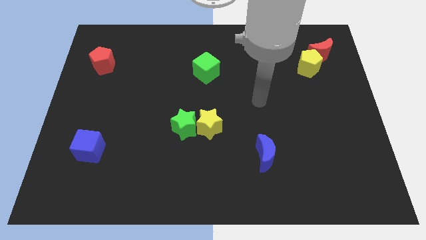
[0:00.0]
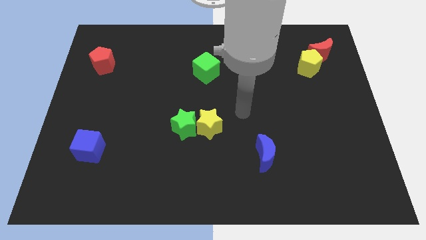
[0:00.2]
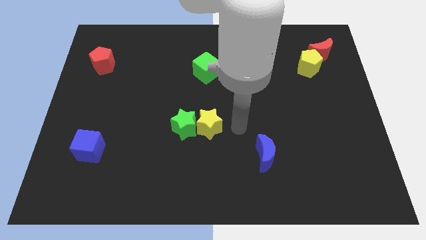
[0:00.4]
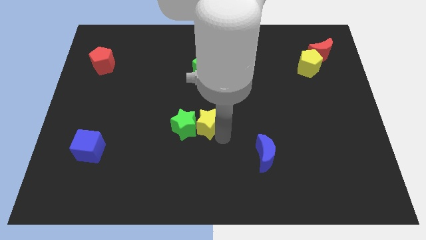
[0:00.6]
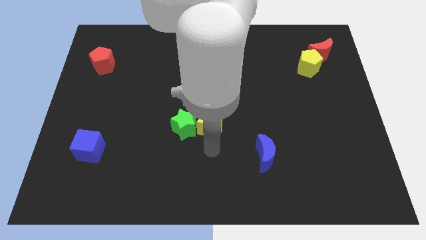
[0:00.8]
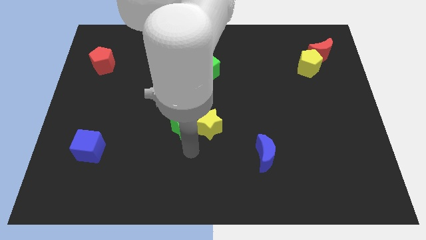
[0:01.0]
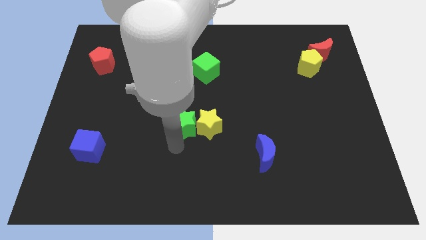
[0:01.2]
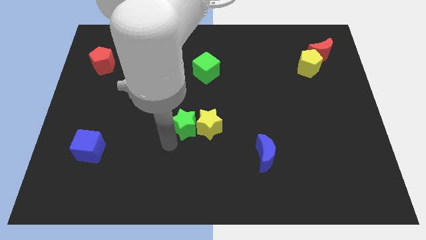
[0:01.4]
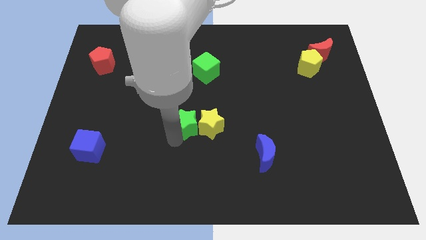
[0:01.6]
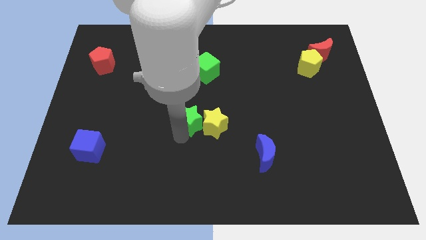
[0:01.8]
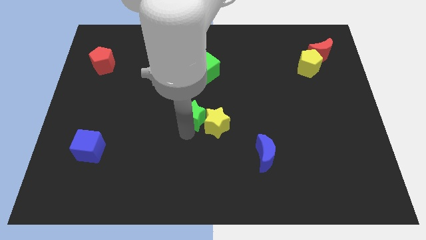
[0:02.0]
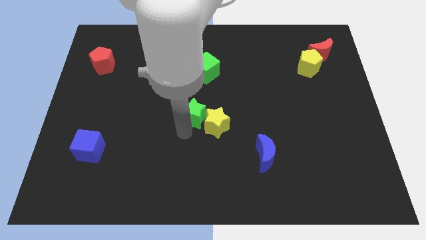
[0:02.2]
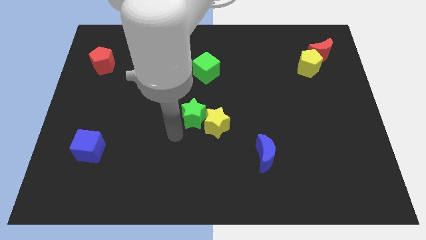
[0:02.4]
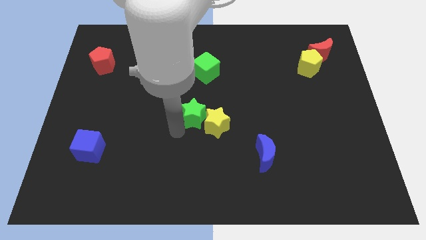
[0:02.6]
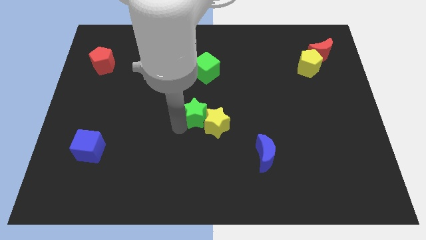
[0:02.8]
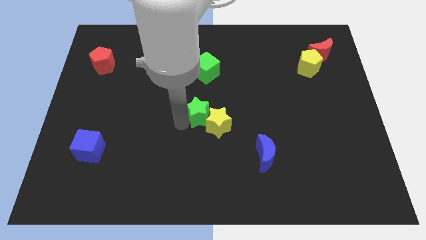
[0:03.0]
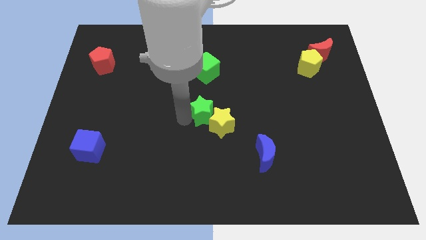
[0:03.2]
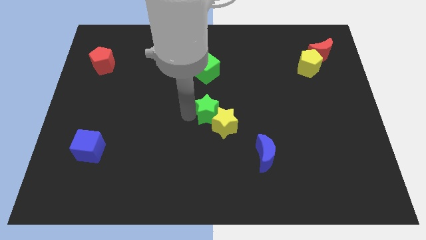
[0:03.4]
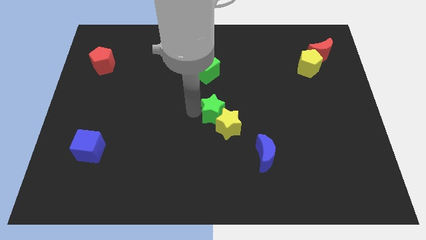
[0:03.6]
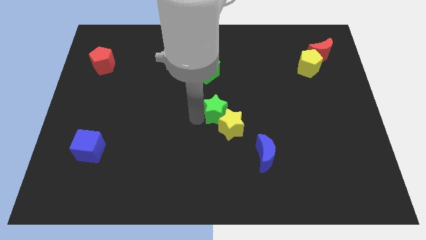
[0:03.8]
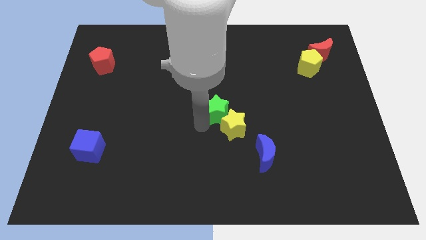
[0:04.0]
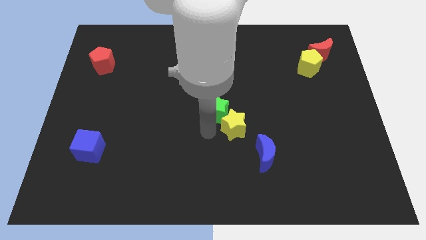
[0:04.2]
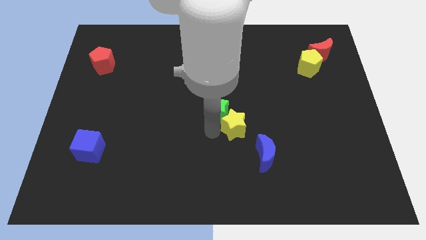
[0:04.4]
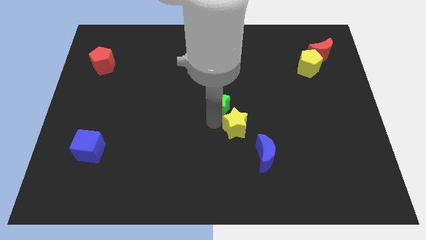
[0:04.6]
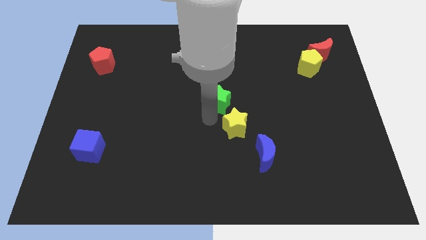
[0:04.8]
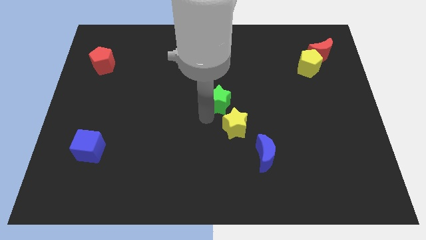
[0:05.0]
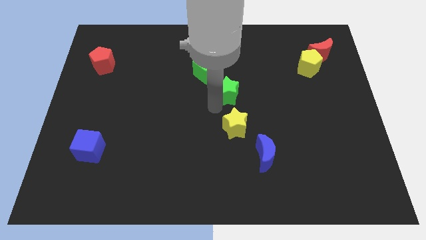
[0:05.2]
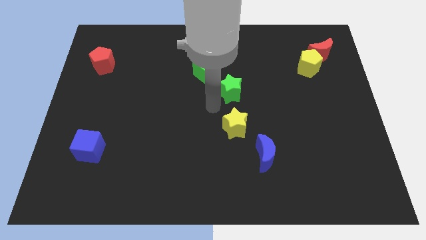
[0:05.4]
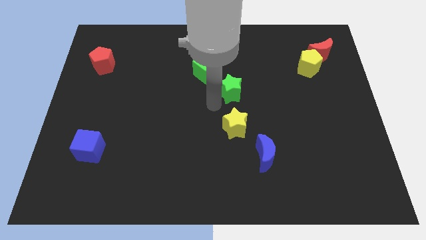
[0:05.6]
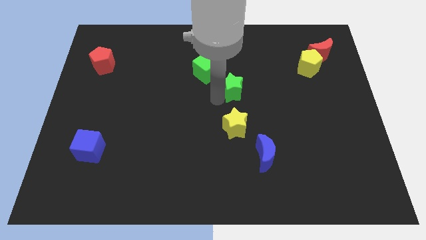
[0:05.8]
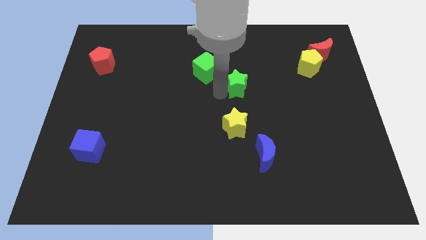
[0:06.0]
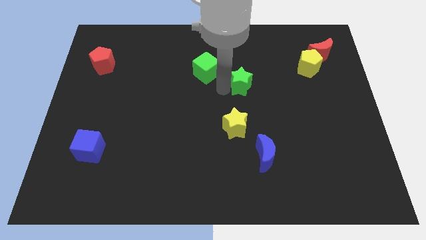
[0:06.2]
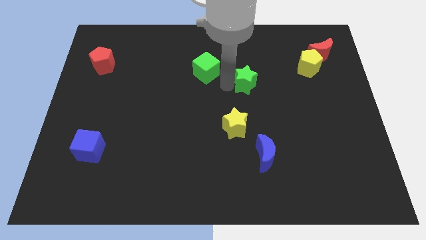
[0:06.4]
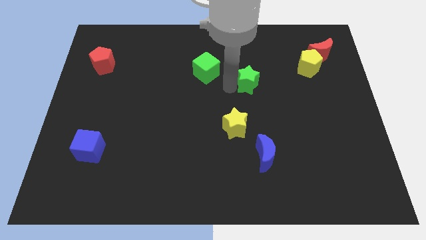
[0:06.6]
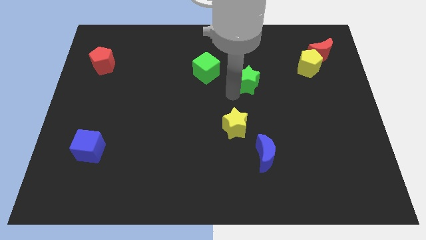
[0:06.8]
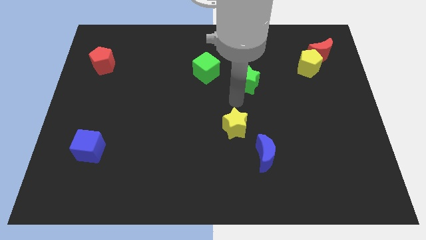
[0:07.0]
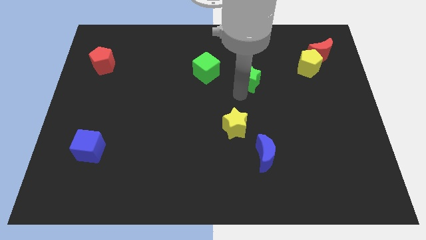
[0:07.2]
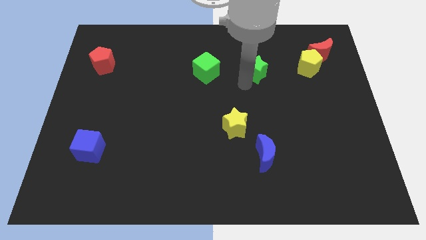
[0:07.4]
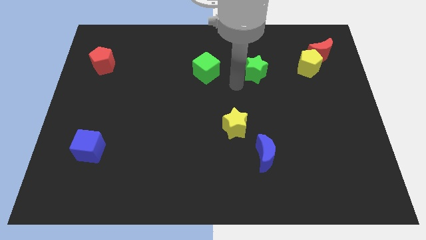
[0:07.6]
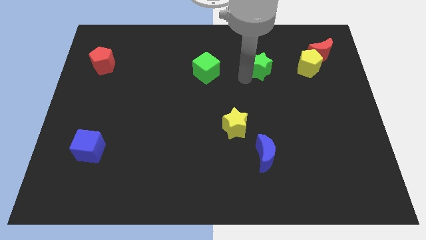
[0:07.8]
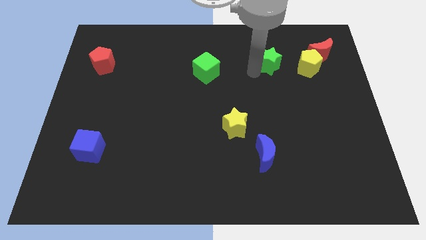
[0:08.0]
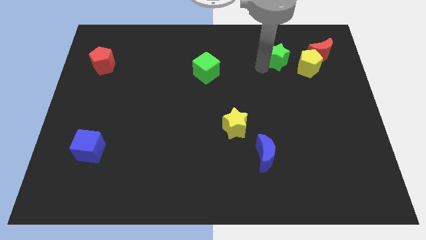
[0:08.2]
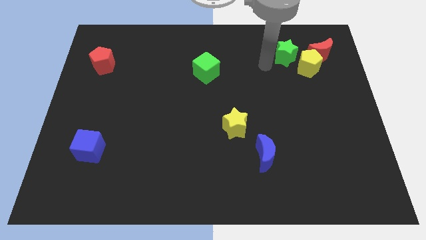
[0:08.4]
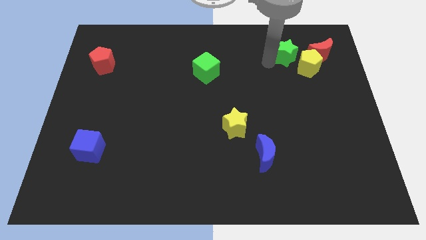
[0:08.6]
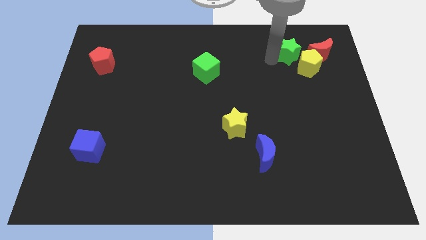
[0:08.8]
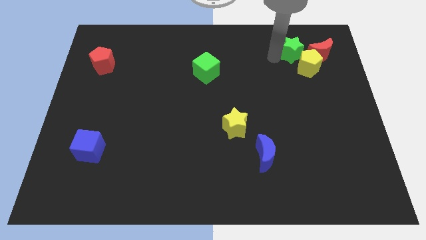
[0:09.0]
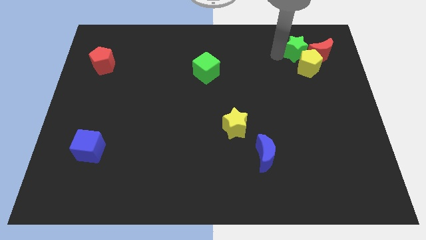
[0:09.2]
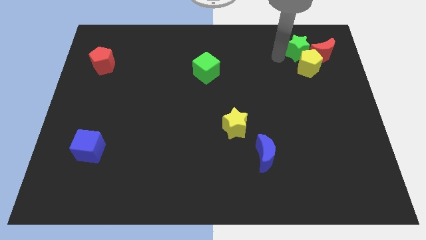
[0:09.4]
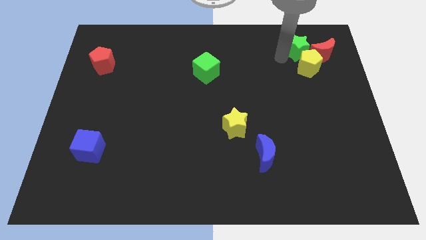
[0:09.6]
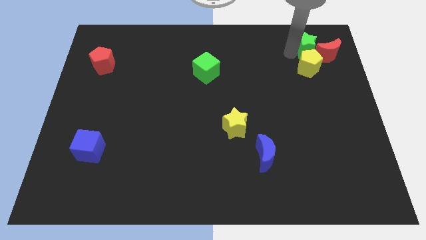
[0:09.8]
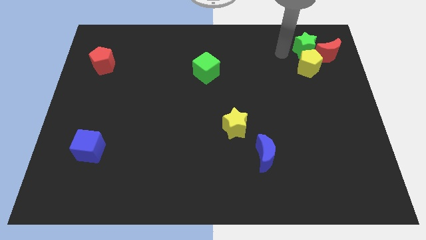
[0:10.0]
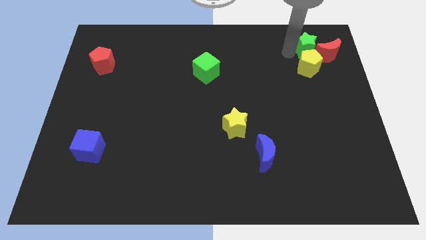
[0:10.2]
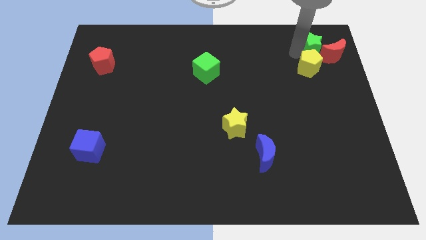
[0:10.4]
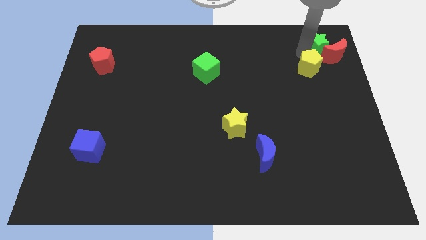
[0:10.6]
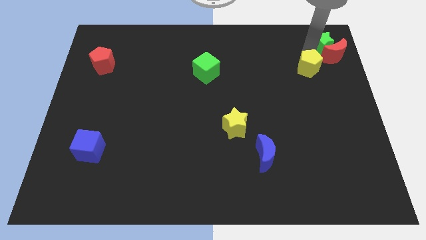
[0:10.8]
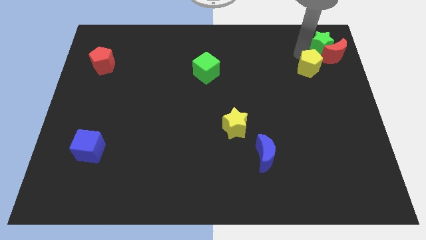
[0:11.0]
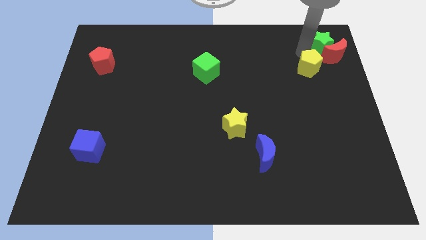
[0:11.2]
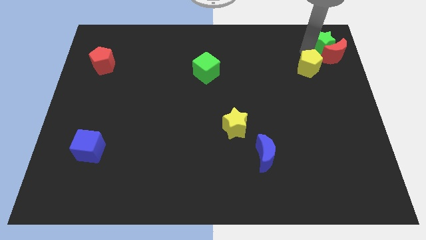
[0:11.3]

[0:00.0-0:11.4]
put the green star to the top right
